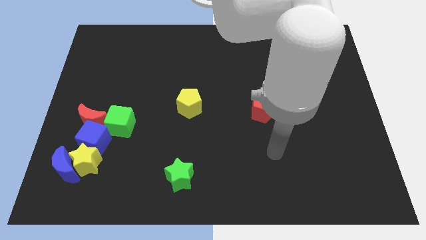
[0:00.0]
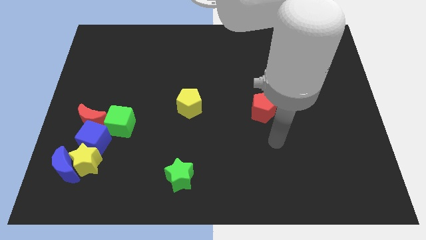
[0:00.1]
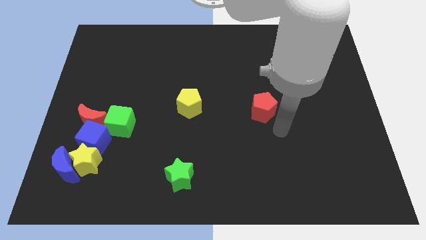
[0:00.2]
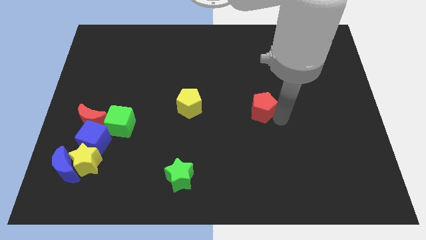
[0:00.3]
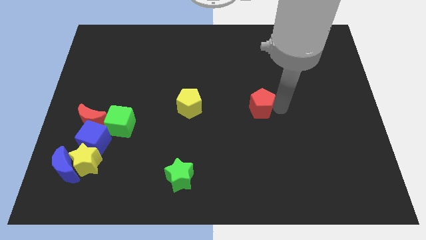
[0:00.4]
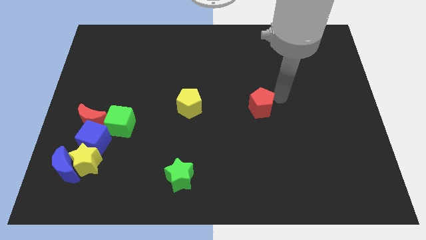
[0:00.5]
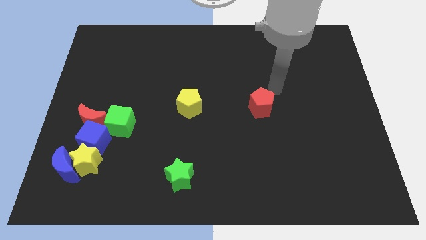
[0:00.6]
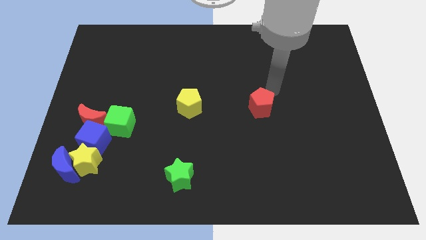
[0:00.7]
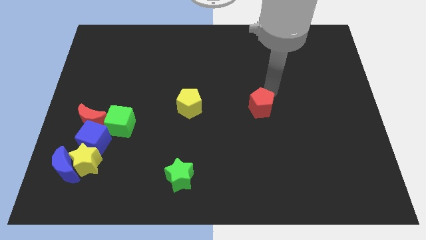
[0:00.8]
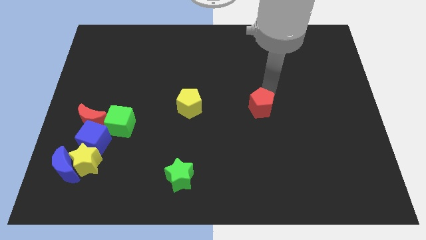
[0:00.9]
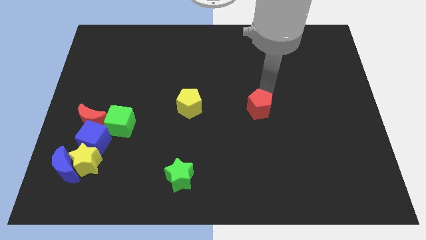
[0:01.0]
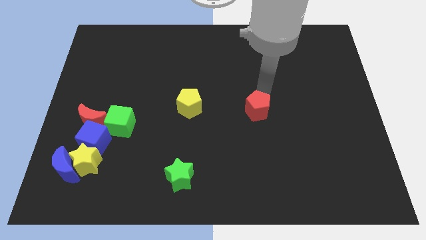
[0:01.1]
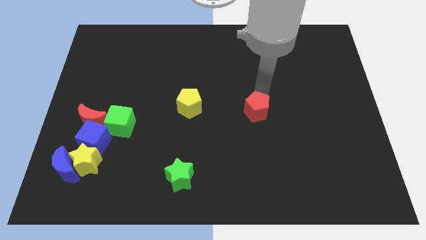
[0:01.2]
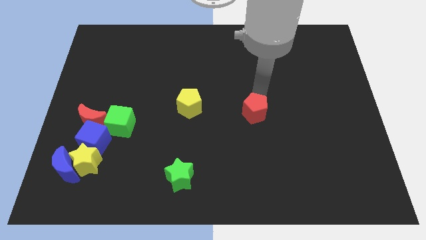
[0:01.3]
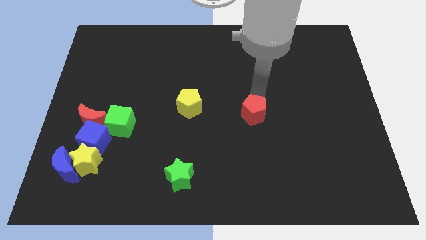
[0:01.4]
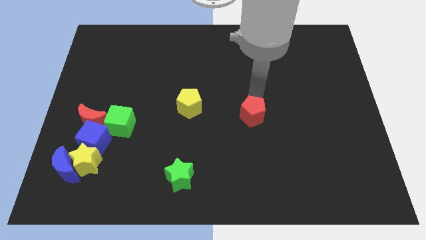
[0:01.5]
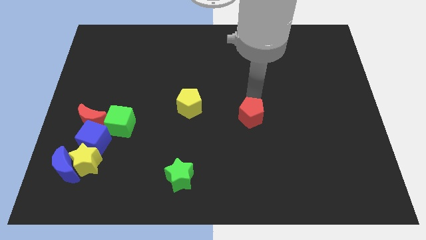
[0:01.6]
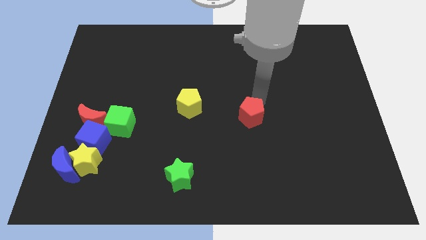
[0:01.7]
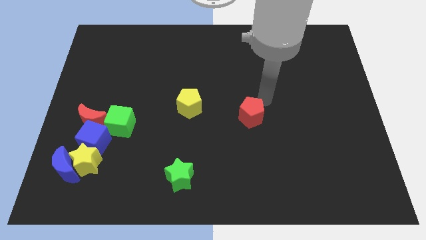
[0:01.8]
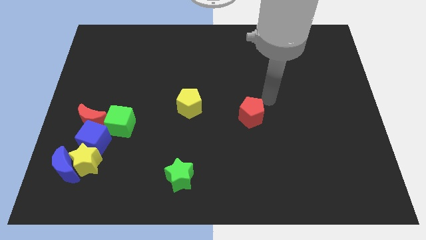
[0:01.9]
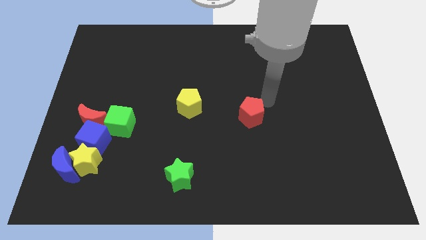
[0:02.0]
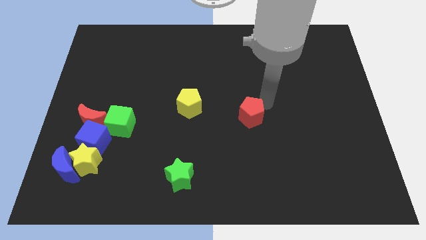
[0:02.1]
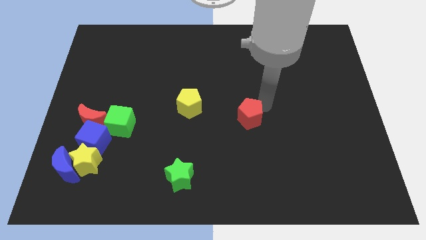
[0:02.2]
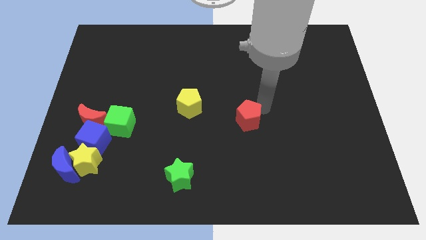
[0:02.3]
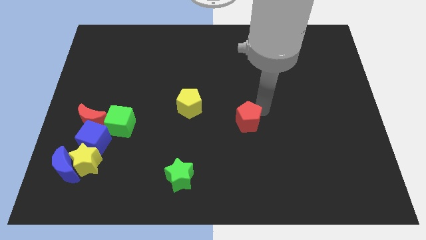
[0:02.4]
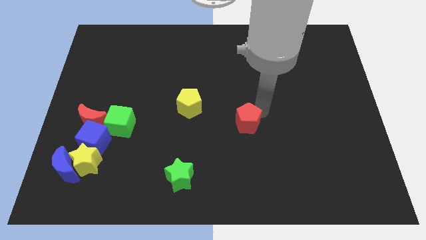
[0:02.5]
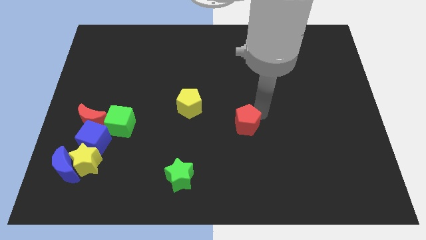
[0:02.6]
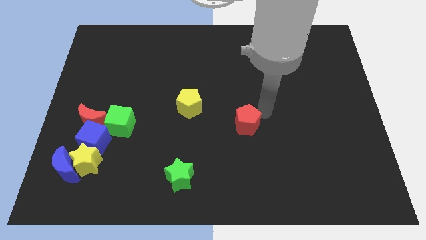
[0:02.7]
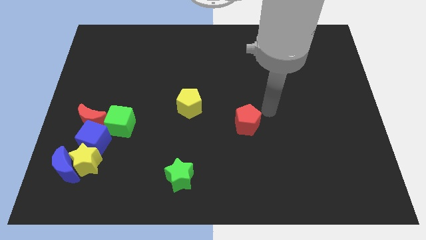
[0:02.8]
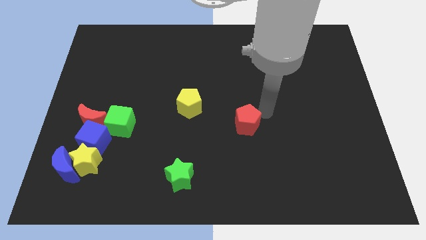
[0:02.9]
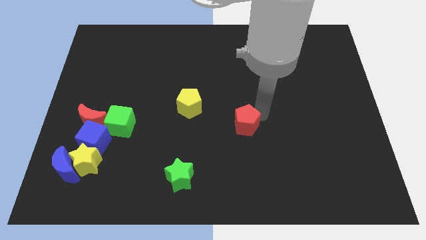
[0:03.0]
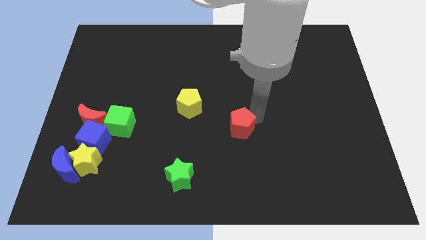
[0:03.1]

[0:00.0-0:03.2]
slightly slide the red pentagon diagonally down and left

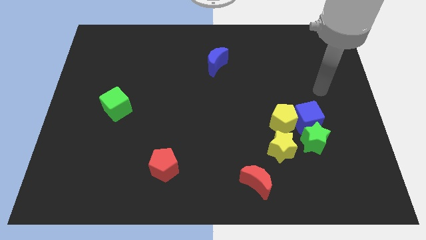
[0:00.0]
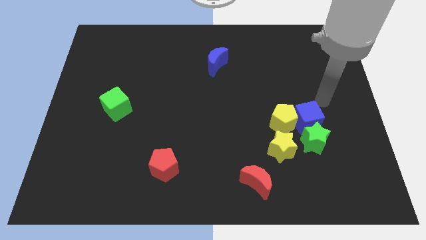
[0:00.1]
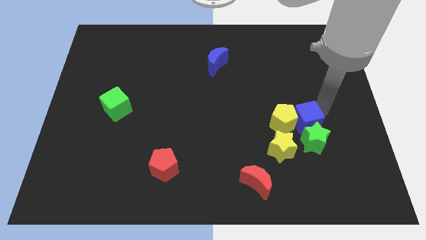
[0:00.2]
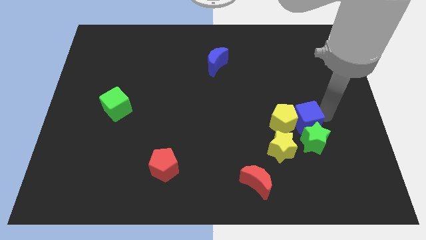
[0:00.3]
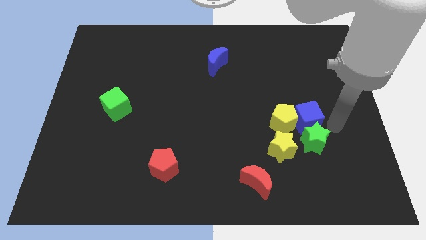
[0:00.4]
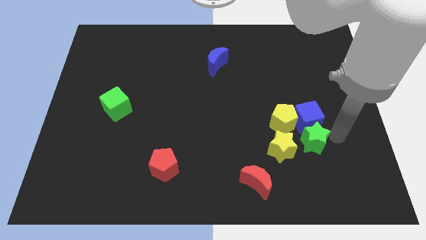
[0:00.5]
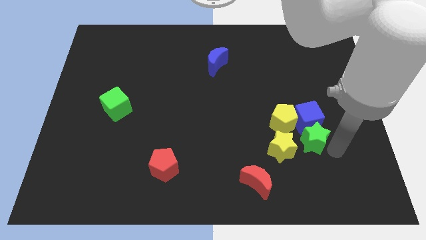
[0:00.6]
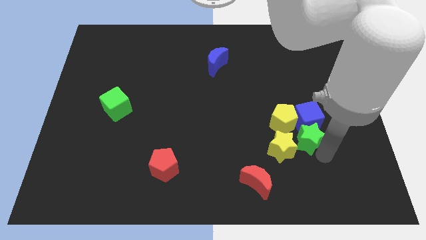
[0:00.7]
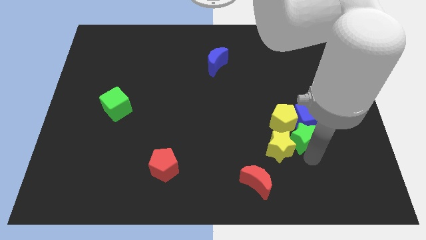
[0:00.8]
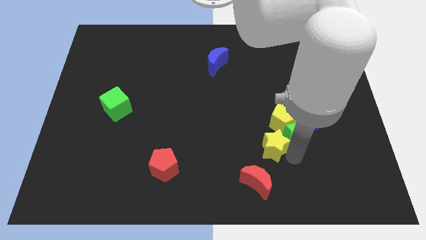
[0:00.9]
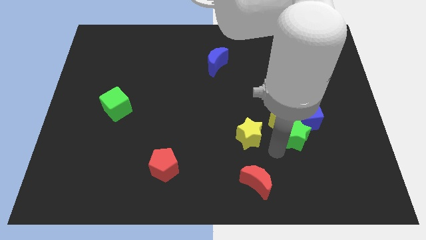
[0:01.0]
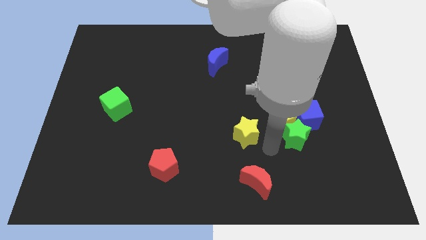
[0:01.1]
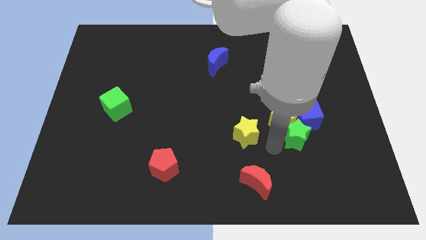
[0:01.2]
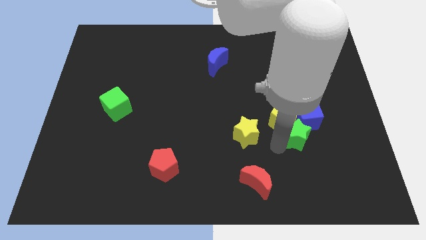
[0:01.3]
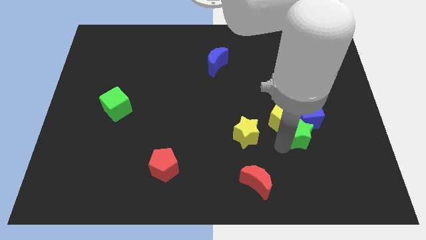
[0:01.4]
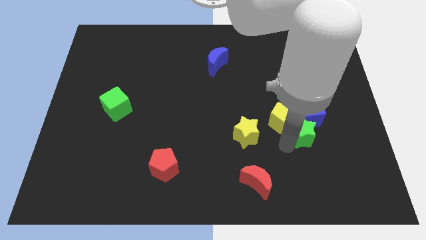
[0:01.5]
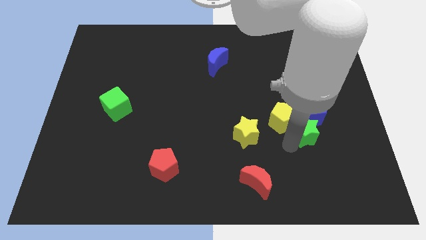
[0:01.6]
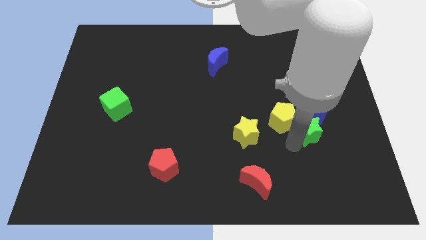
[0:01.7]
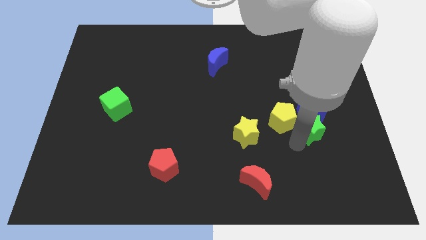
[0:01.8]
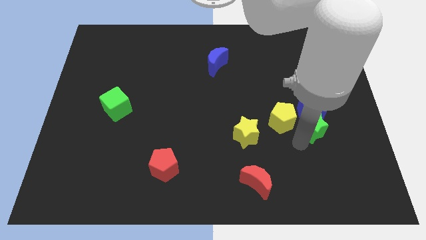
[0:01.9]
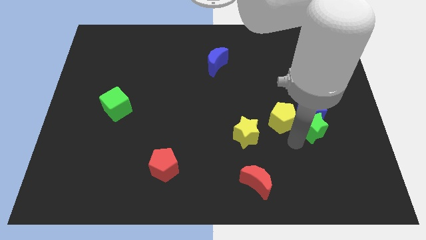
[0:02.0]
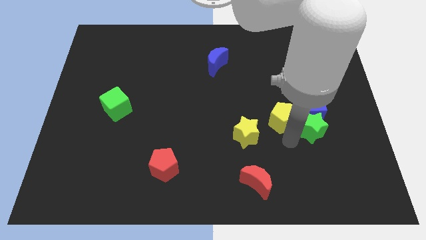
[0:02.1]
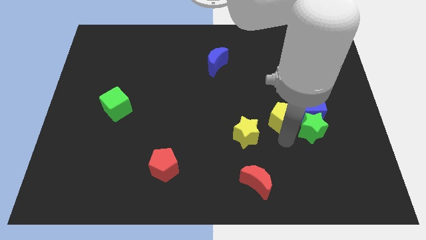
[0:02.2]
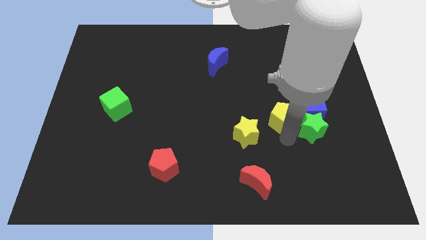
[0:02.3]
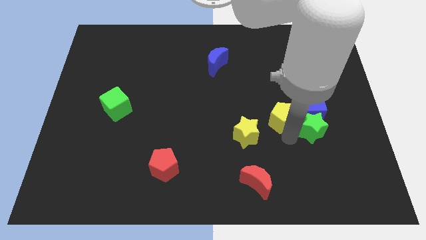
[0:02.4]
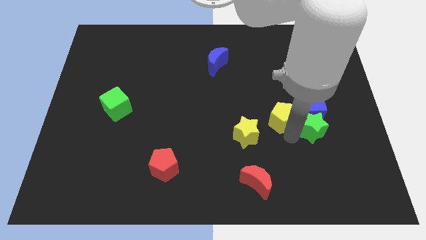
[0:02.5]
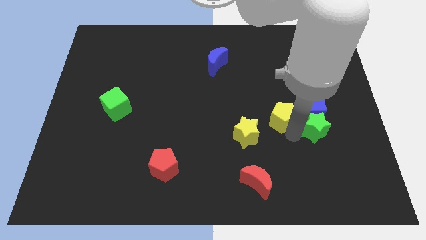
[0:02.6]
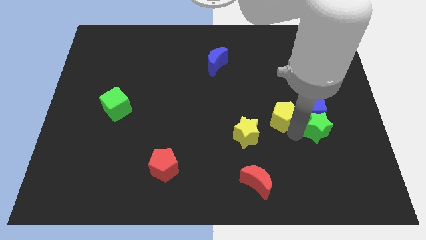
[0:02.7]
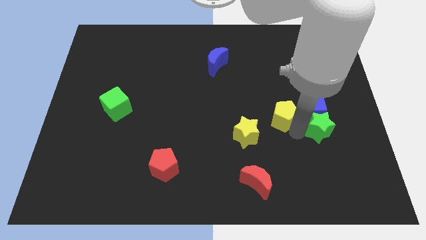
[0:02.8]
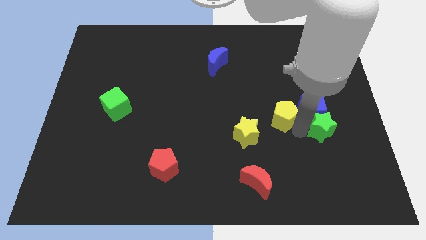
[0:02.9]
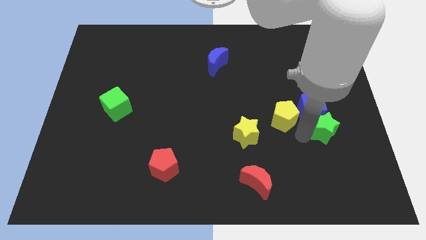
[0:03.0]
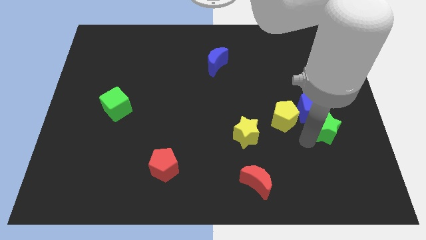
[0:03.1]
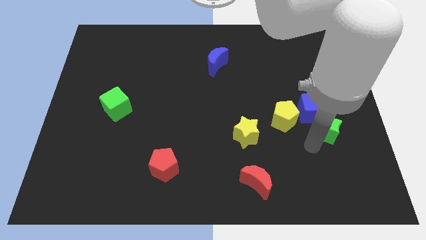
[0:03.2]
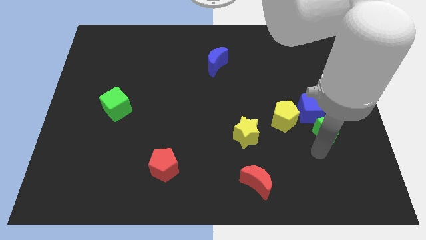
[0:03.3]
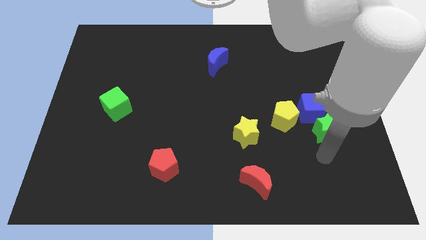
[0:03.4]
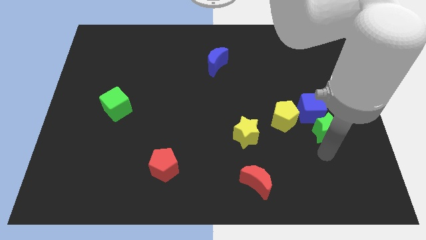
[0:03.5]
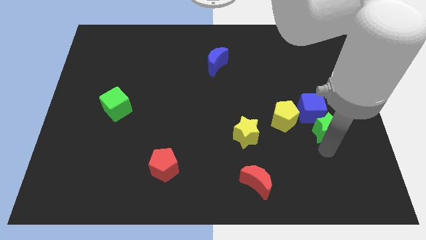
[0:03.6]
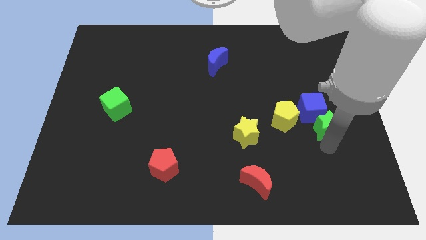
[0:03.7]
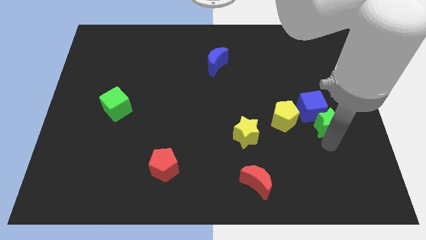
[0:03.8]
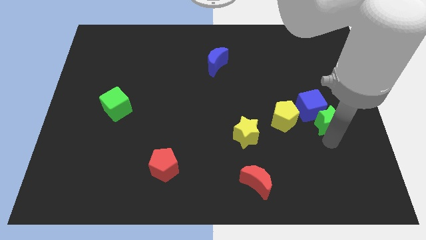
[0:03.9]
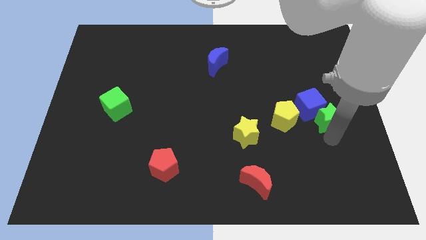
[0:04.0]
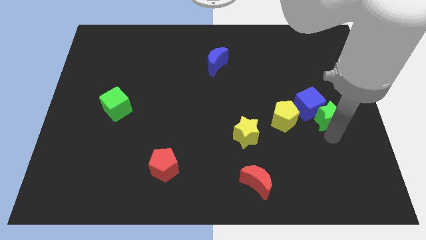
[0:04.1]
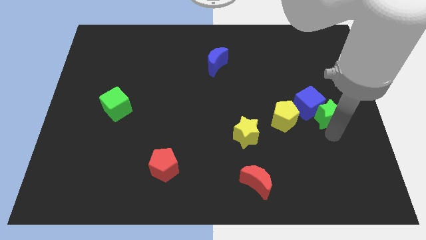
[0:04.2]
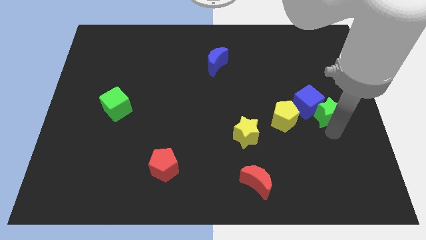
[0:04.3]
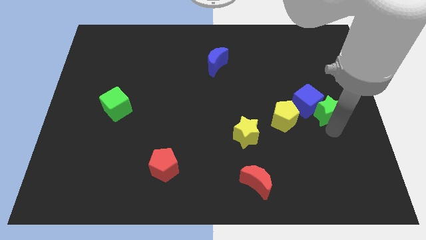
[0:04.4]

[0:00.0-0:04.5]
move the green star a little upwards

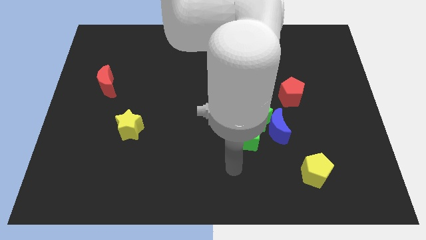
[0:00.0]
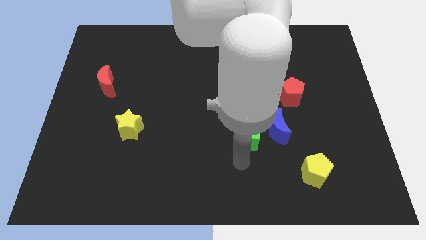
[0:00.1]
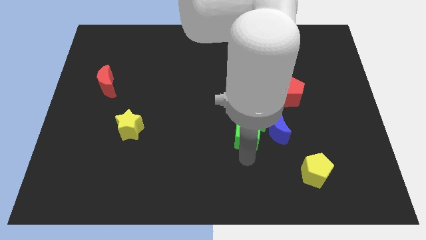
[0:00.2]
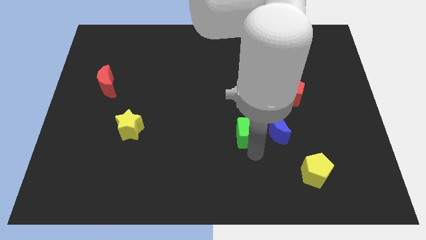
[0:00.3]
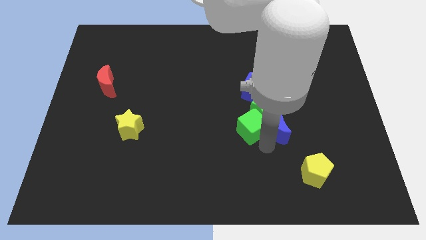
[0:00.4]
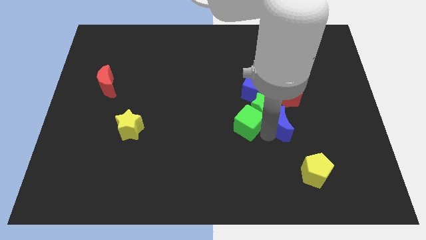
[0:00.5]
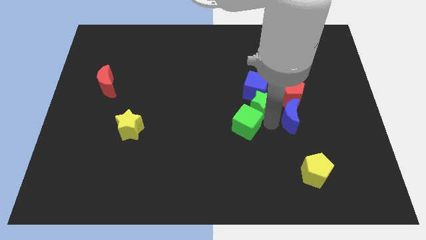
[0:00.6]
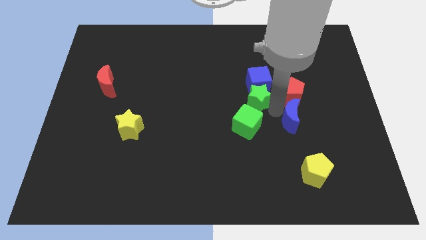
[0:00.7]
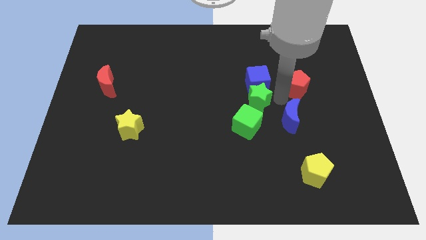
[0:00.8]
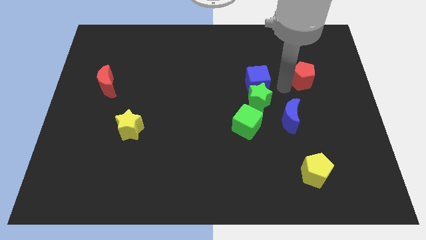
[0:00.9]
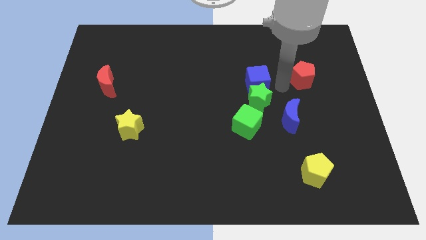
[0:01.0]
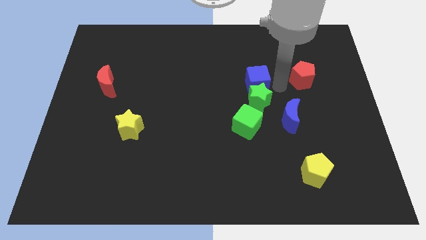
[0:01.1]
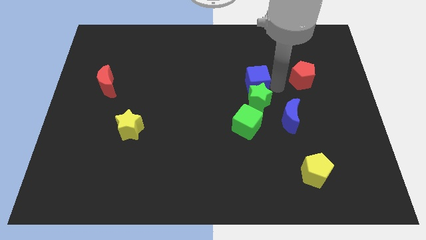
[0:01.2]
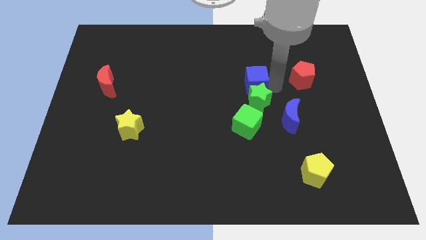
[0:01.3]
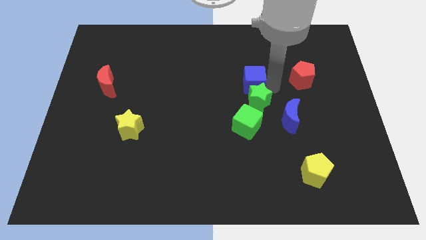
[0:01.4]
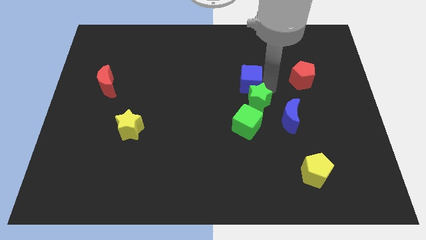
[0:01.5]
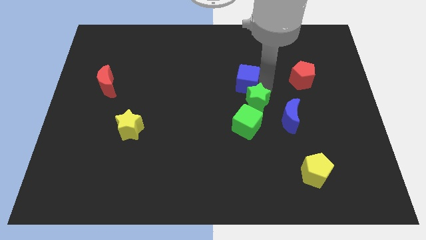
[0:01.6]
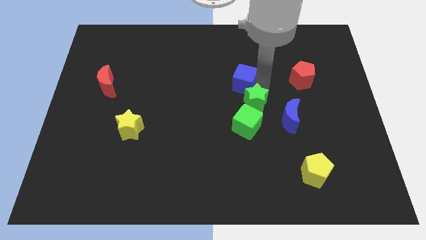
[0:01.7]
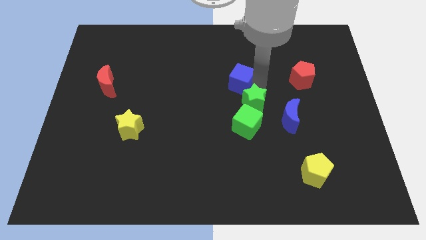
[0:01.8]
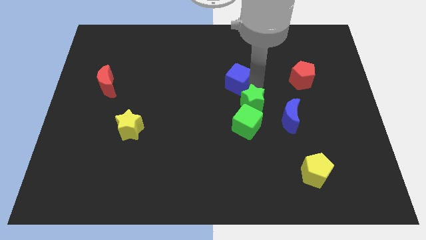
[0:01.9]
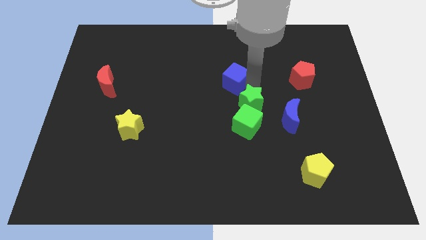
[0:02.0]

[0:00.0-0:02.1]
slide the blue cube a little upwards and to the left diagonally
